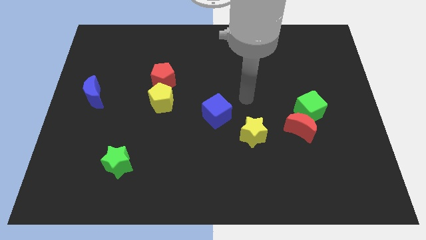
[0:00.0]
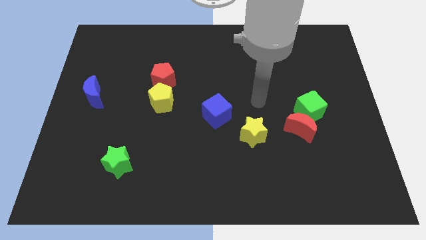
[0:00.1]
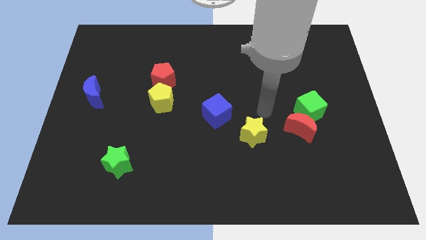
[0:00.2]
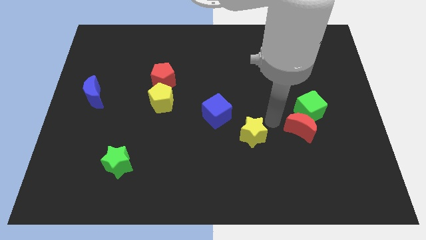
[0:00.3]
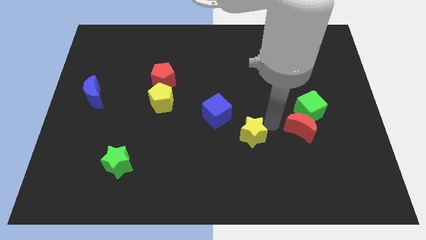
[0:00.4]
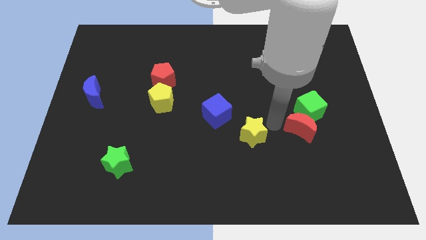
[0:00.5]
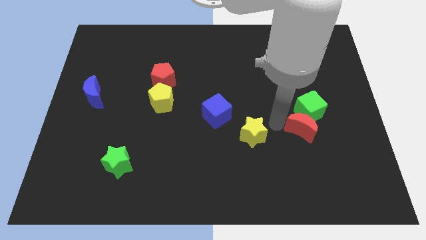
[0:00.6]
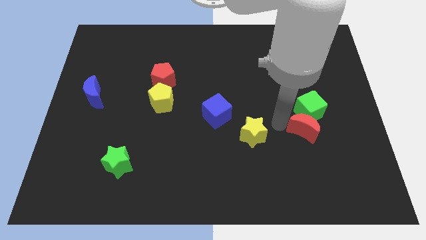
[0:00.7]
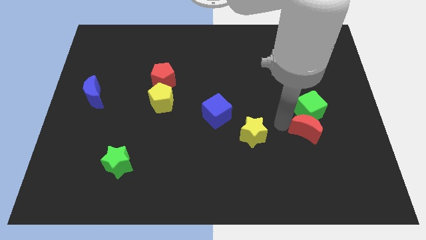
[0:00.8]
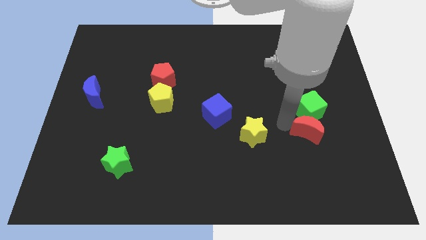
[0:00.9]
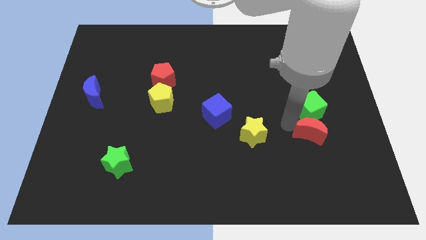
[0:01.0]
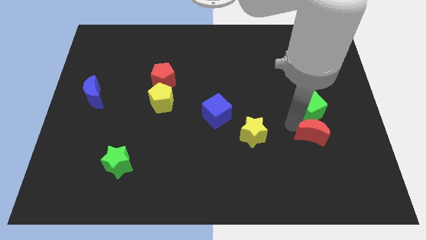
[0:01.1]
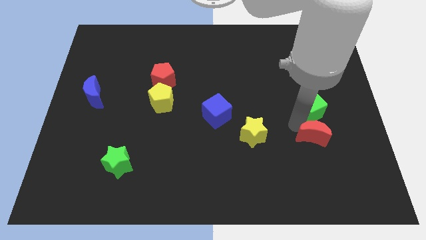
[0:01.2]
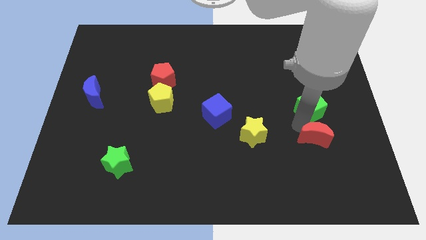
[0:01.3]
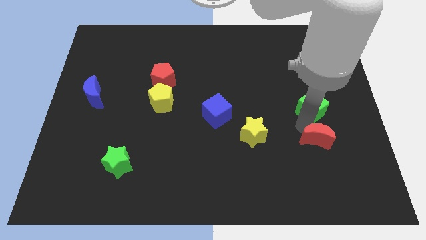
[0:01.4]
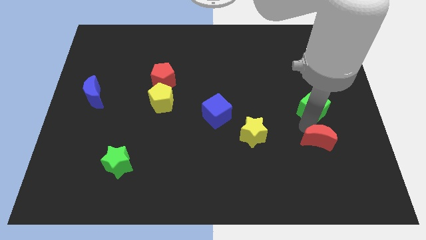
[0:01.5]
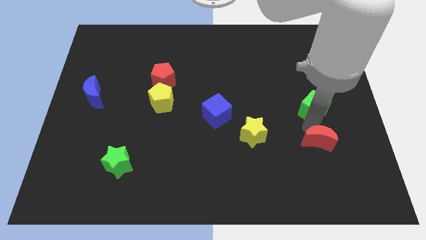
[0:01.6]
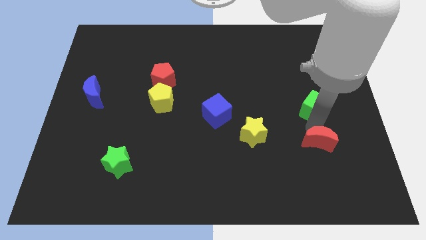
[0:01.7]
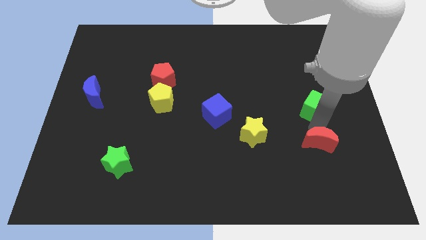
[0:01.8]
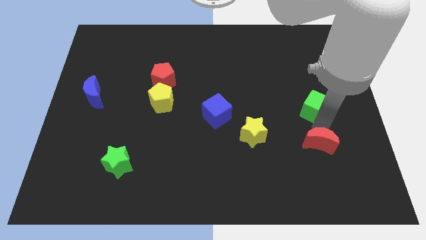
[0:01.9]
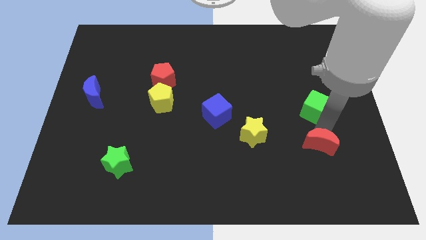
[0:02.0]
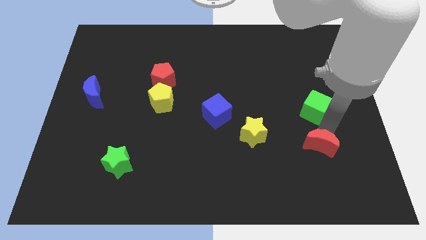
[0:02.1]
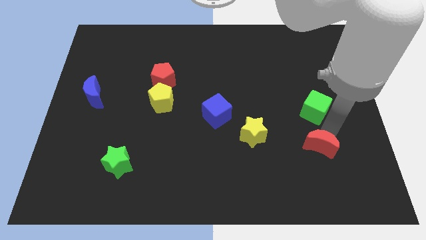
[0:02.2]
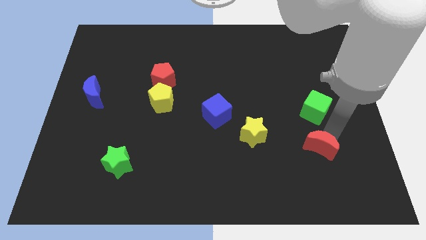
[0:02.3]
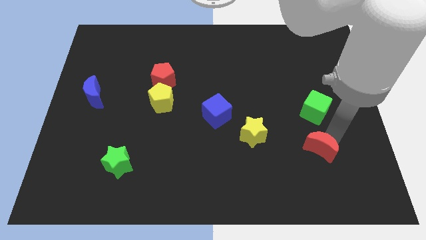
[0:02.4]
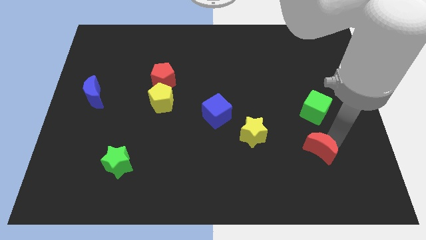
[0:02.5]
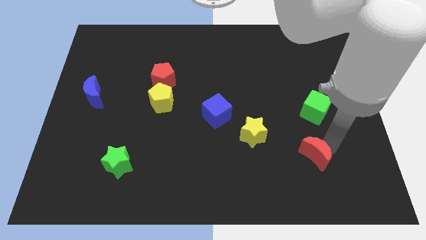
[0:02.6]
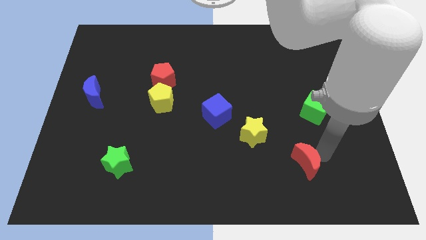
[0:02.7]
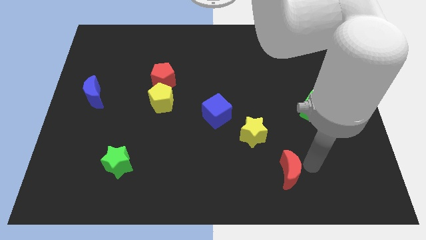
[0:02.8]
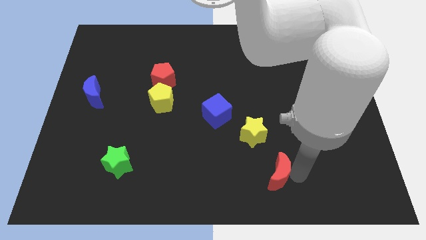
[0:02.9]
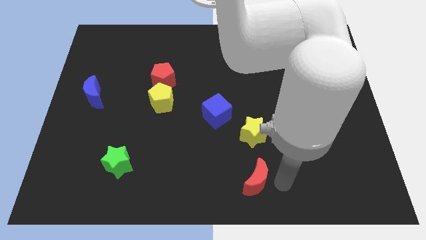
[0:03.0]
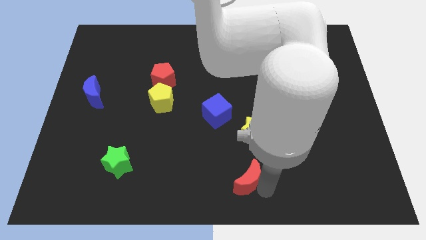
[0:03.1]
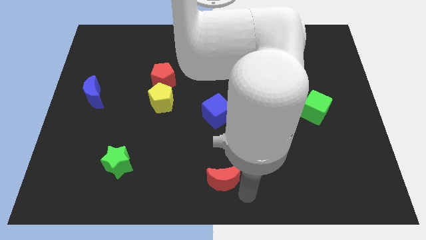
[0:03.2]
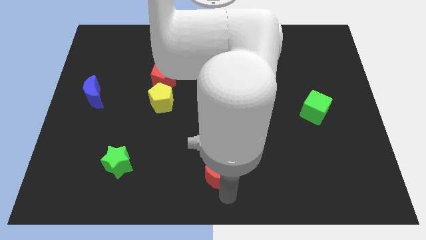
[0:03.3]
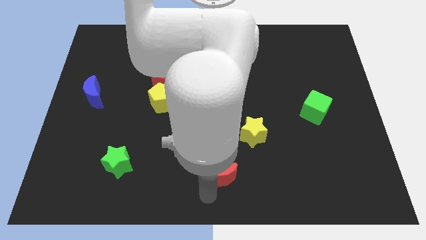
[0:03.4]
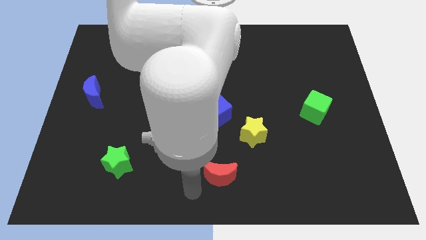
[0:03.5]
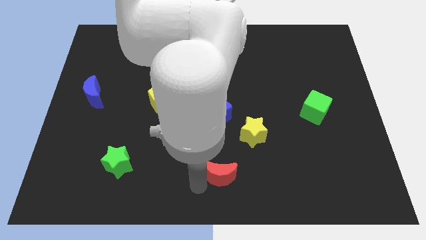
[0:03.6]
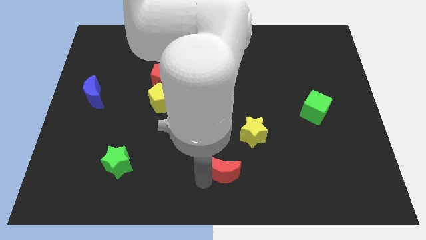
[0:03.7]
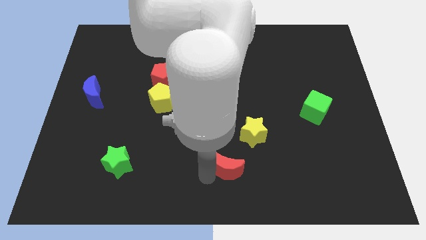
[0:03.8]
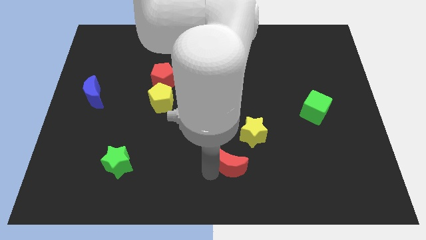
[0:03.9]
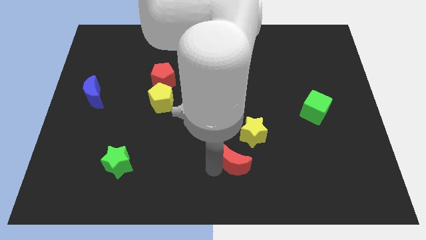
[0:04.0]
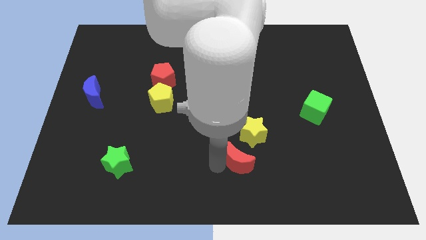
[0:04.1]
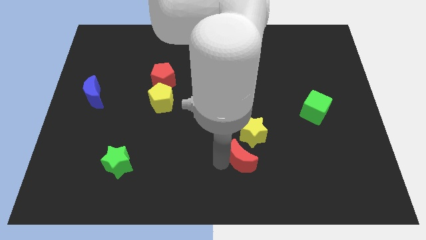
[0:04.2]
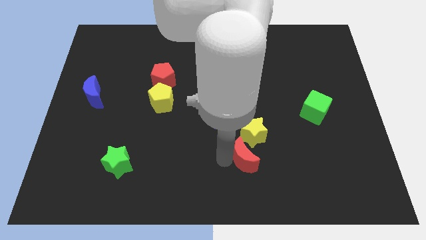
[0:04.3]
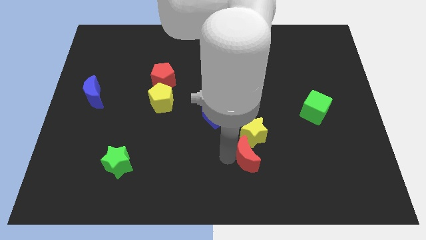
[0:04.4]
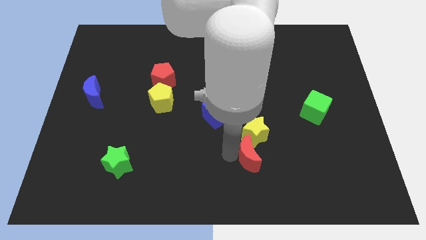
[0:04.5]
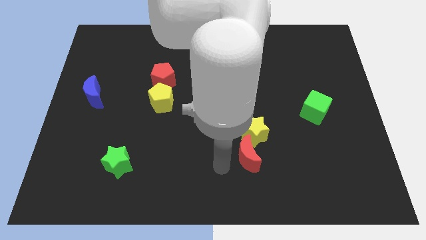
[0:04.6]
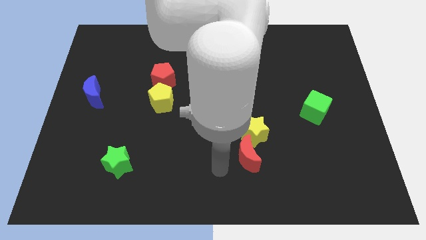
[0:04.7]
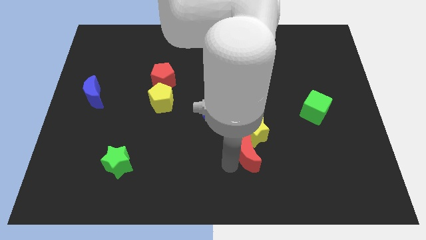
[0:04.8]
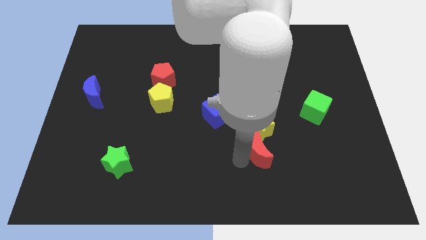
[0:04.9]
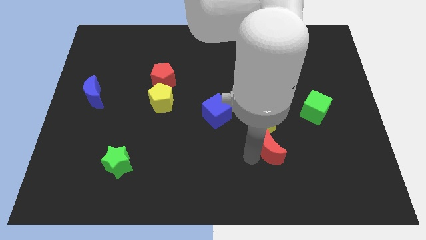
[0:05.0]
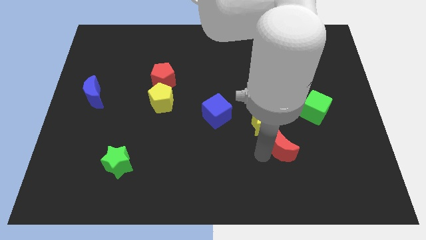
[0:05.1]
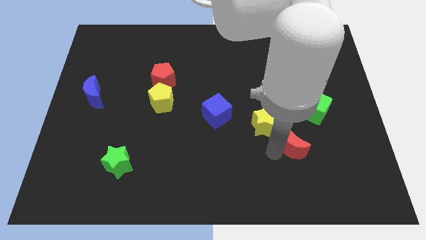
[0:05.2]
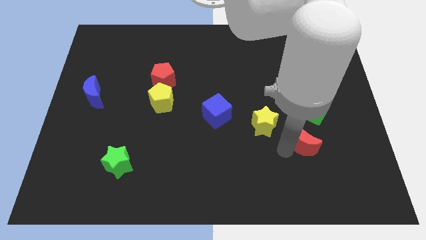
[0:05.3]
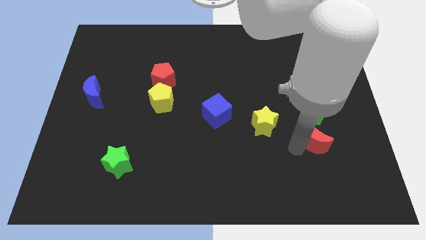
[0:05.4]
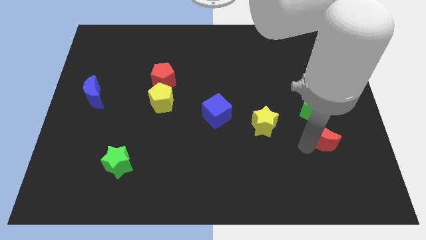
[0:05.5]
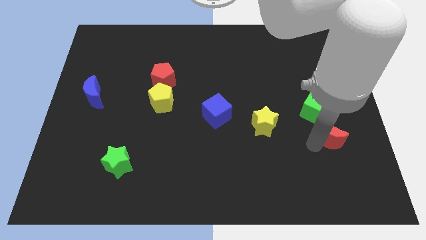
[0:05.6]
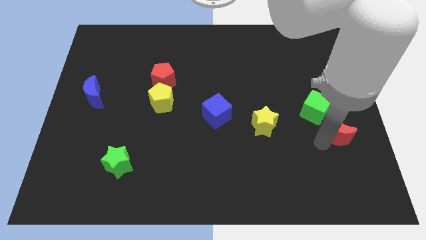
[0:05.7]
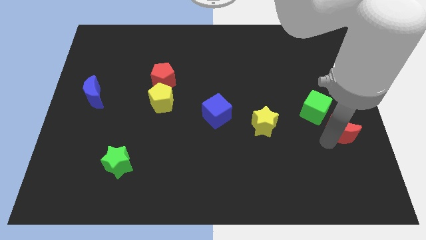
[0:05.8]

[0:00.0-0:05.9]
put the red moon to the right side of the board
